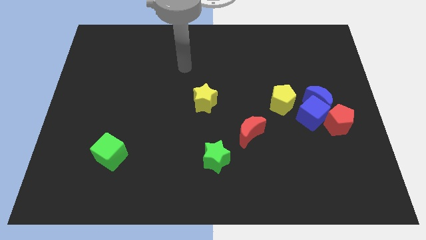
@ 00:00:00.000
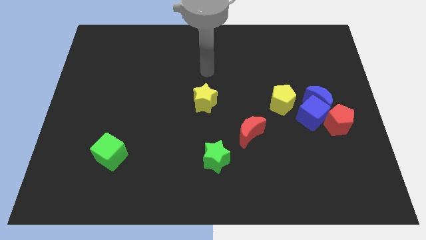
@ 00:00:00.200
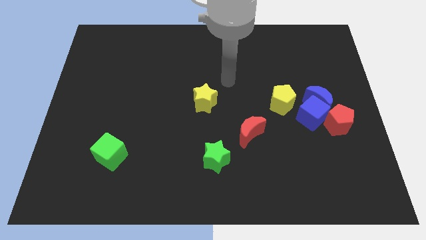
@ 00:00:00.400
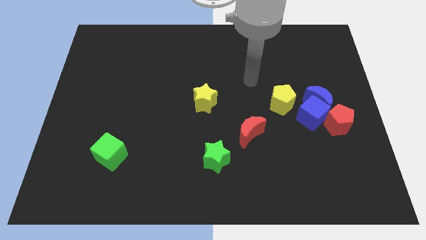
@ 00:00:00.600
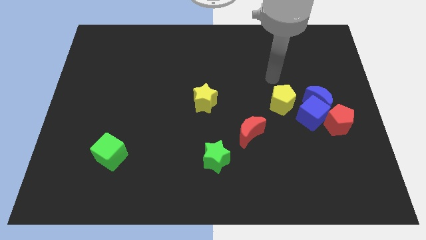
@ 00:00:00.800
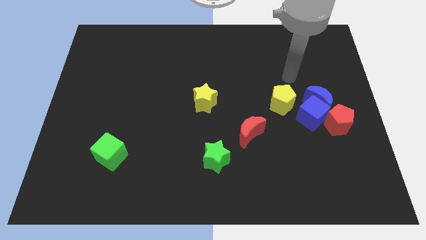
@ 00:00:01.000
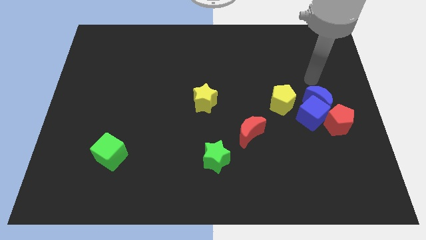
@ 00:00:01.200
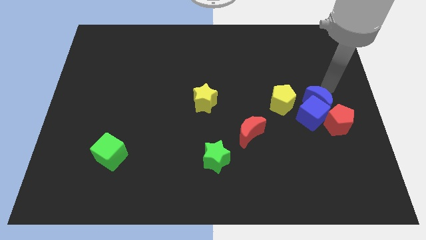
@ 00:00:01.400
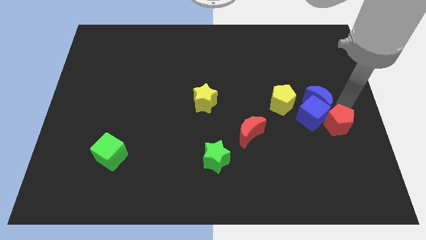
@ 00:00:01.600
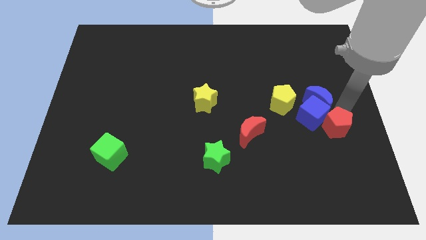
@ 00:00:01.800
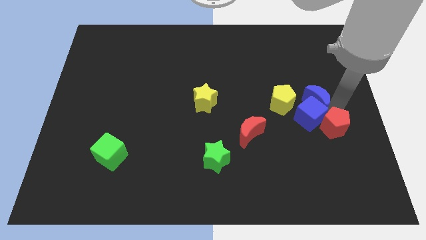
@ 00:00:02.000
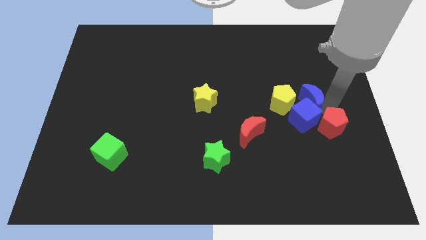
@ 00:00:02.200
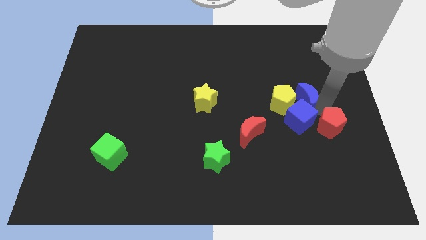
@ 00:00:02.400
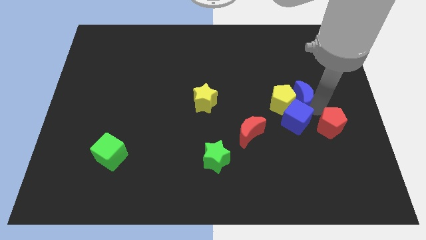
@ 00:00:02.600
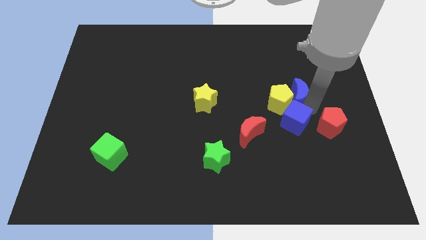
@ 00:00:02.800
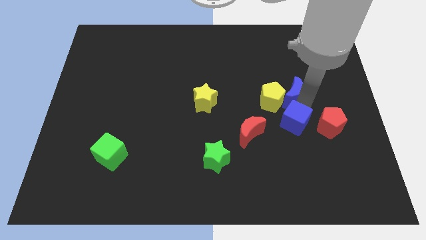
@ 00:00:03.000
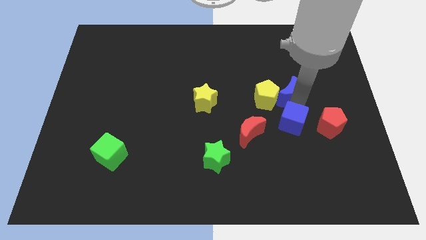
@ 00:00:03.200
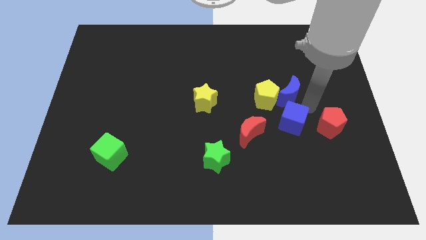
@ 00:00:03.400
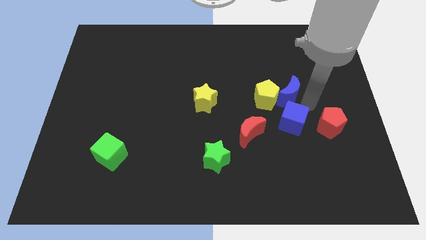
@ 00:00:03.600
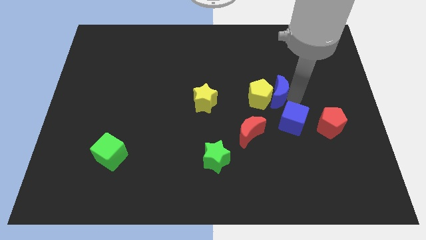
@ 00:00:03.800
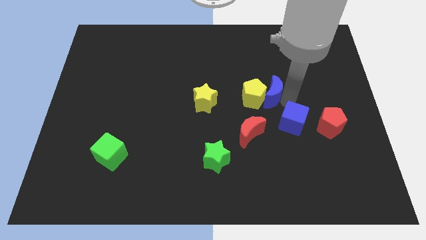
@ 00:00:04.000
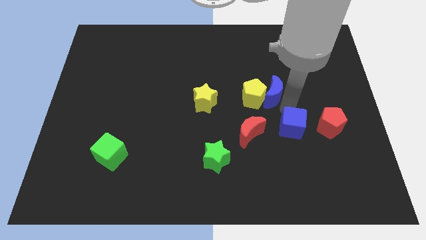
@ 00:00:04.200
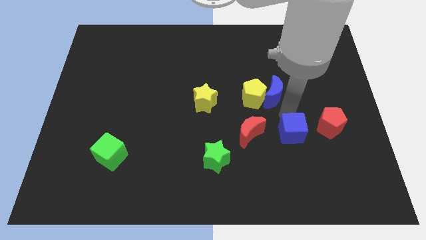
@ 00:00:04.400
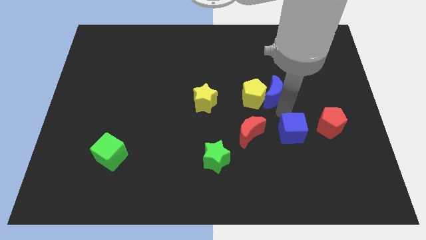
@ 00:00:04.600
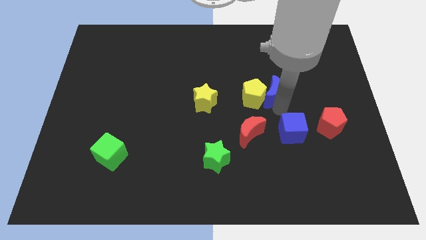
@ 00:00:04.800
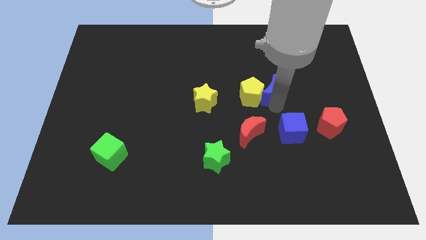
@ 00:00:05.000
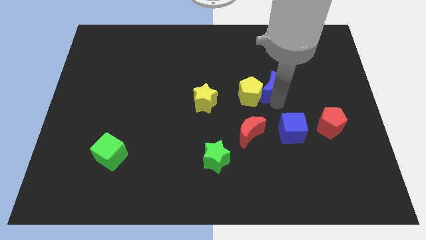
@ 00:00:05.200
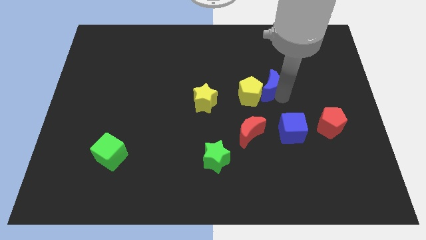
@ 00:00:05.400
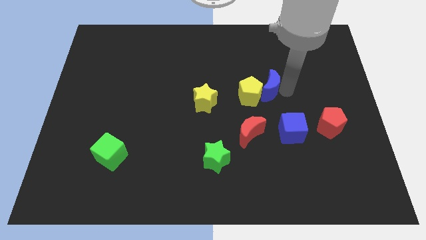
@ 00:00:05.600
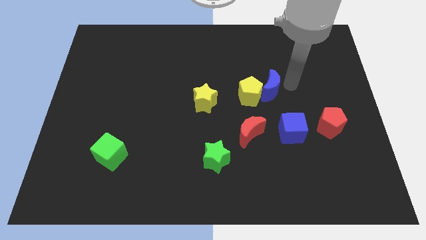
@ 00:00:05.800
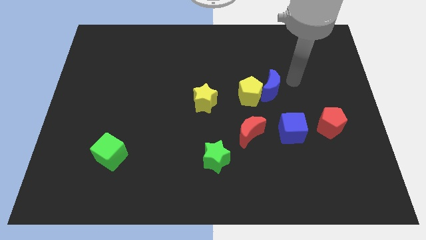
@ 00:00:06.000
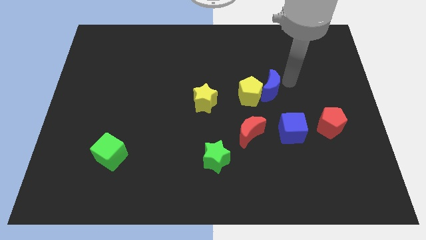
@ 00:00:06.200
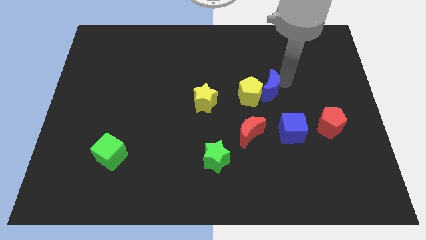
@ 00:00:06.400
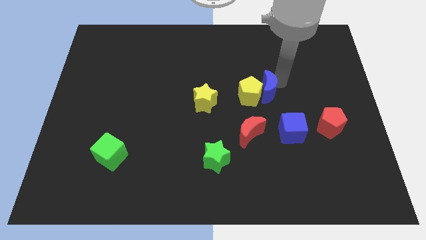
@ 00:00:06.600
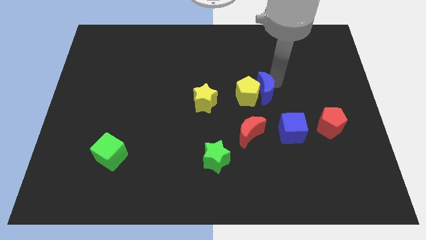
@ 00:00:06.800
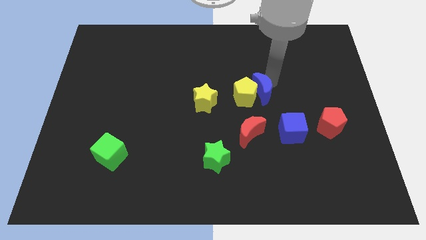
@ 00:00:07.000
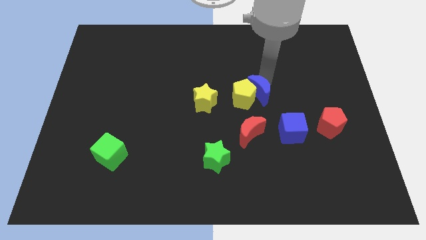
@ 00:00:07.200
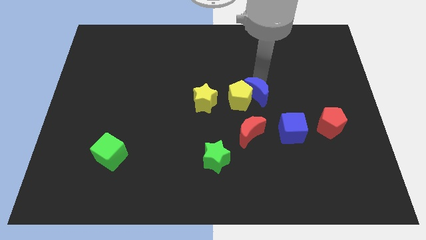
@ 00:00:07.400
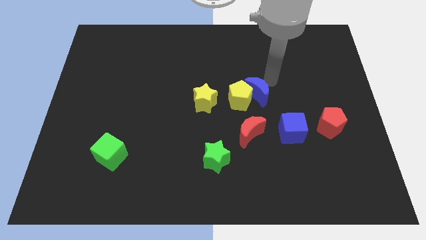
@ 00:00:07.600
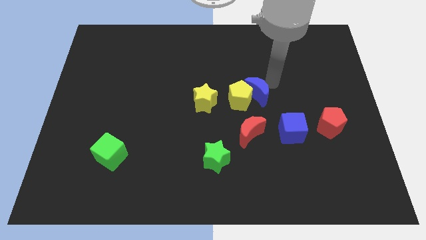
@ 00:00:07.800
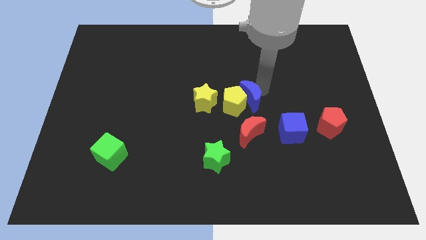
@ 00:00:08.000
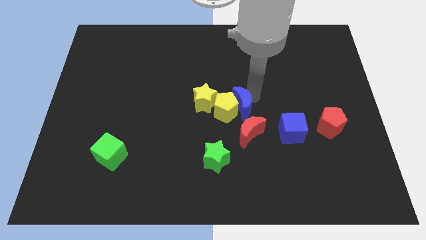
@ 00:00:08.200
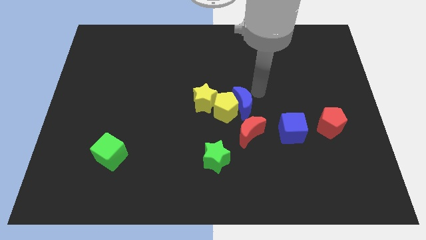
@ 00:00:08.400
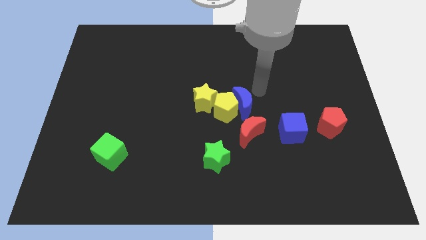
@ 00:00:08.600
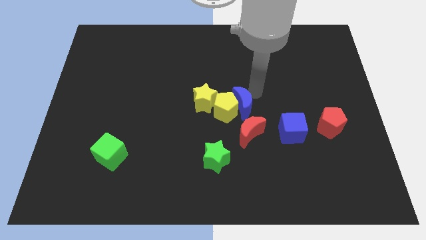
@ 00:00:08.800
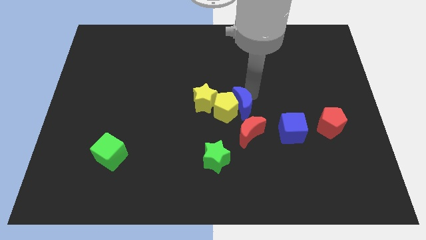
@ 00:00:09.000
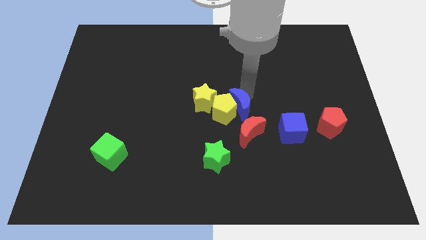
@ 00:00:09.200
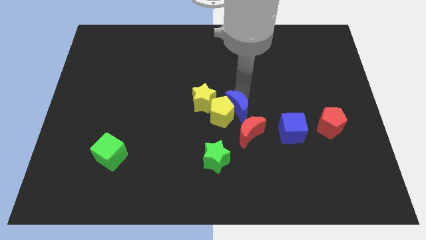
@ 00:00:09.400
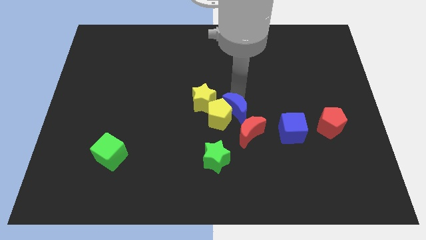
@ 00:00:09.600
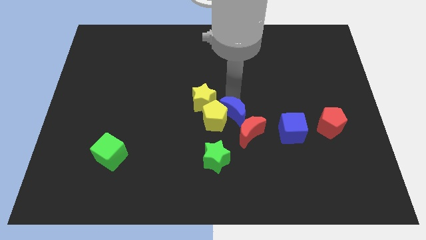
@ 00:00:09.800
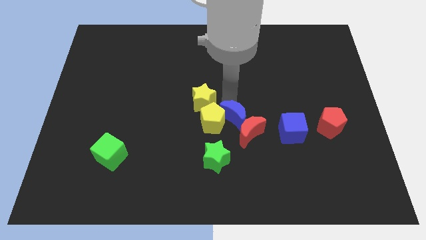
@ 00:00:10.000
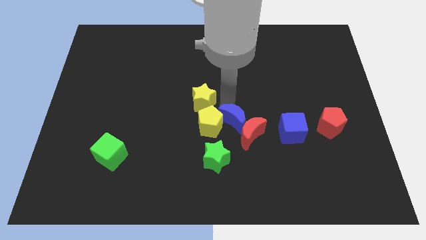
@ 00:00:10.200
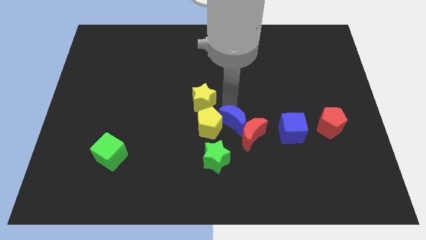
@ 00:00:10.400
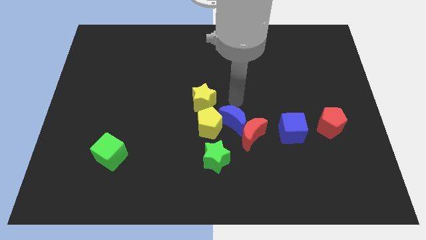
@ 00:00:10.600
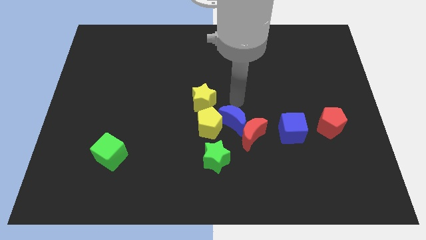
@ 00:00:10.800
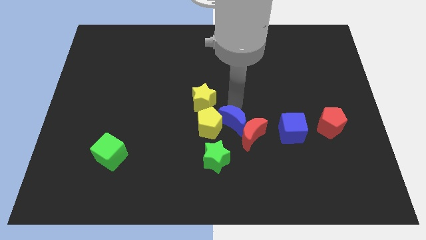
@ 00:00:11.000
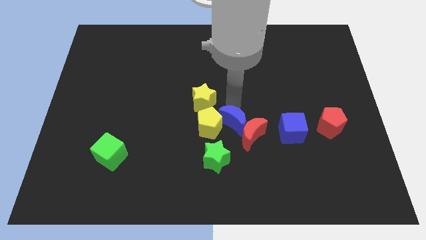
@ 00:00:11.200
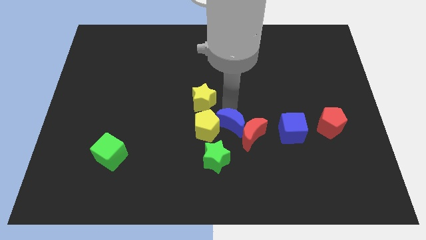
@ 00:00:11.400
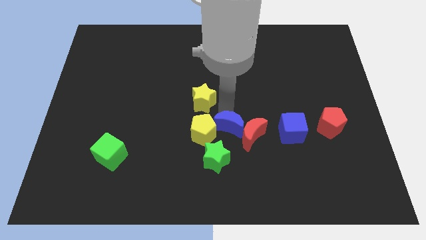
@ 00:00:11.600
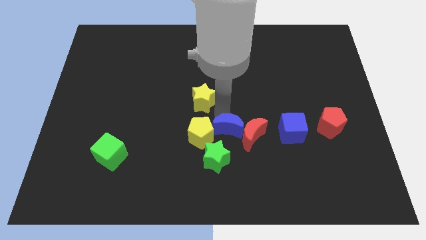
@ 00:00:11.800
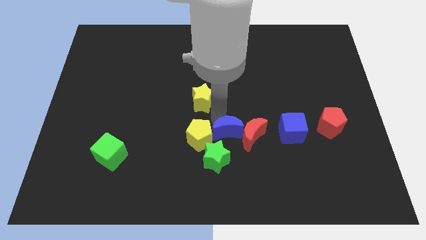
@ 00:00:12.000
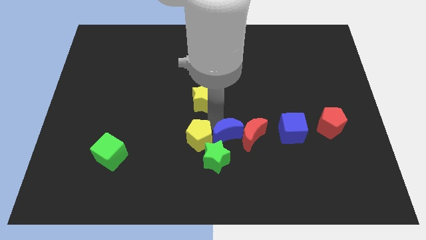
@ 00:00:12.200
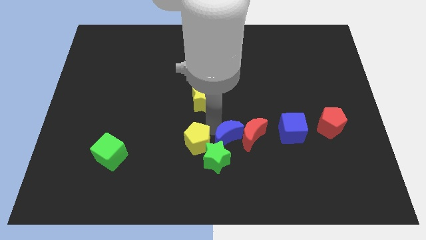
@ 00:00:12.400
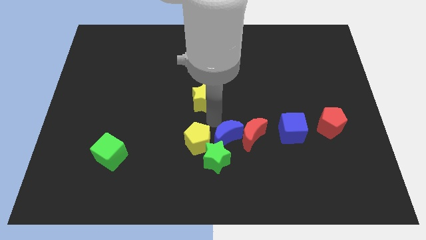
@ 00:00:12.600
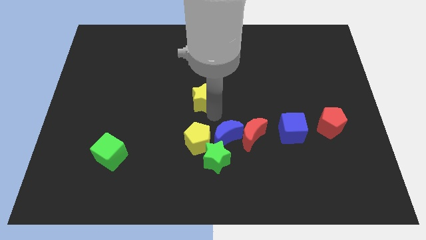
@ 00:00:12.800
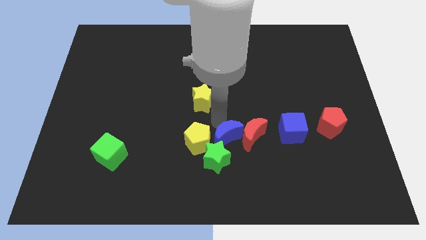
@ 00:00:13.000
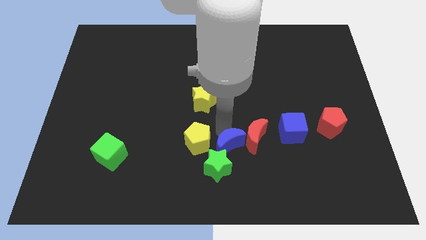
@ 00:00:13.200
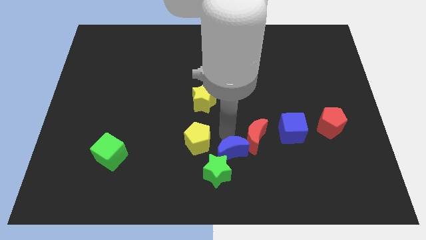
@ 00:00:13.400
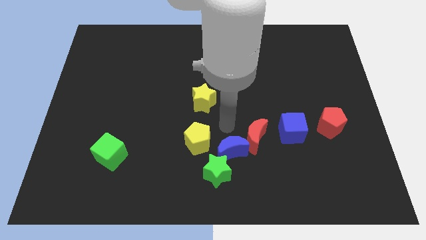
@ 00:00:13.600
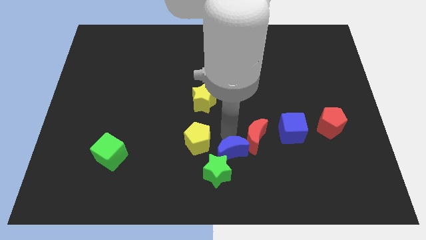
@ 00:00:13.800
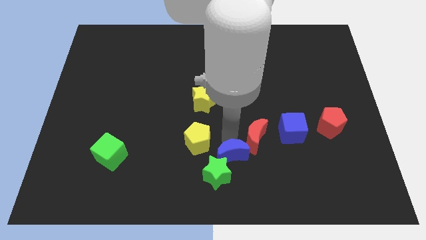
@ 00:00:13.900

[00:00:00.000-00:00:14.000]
push the blue moon to the bottom
